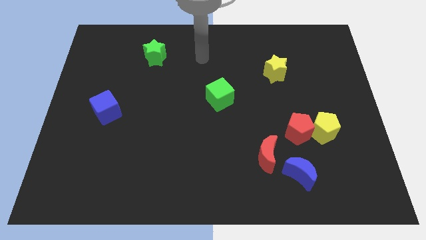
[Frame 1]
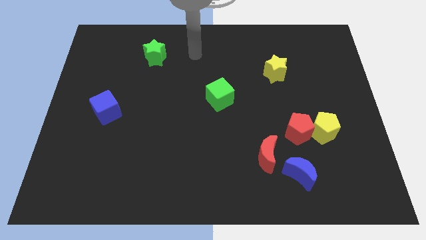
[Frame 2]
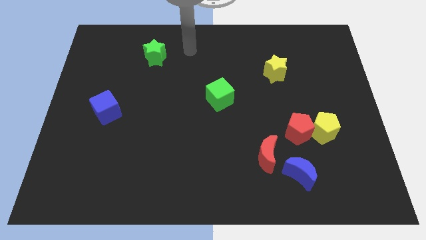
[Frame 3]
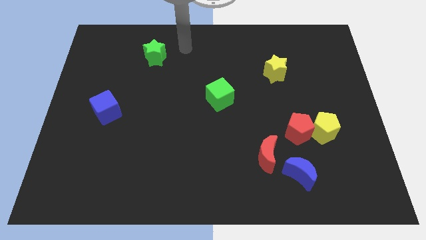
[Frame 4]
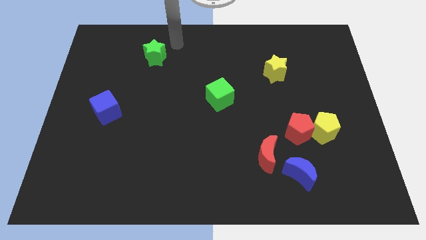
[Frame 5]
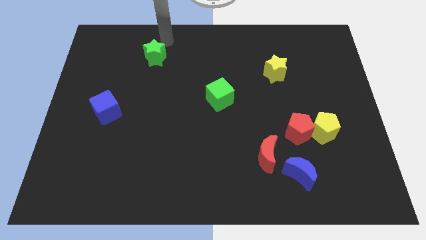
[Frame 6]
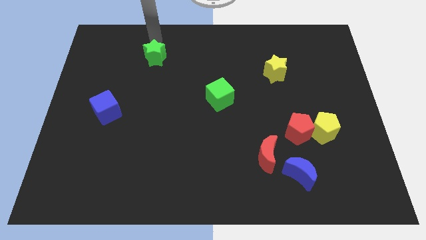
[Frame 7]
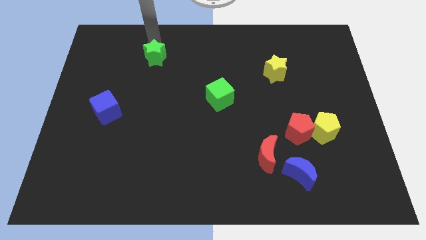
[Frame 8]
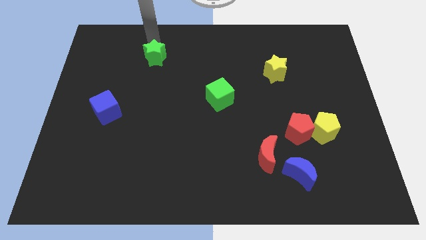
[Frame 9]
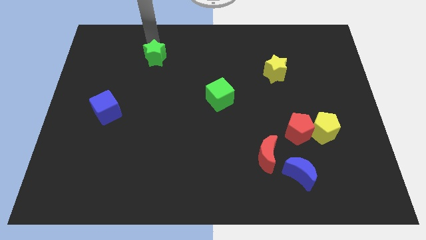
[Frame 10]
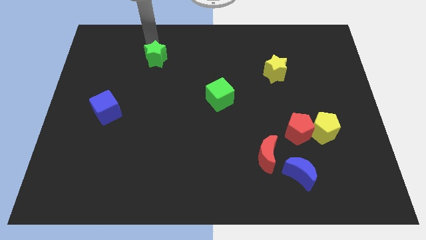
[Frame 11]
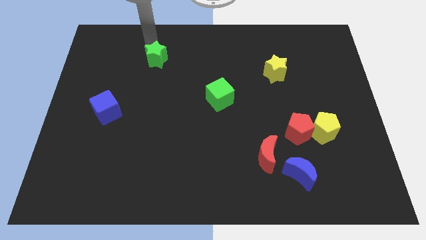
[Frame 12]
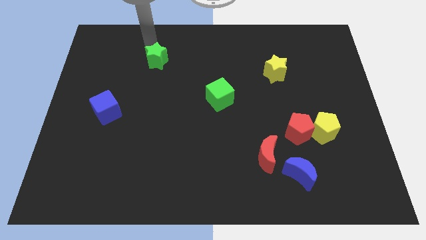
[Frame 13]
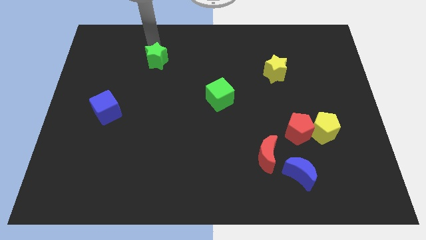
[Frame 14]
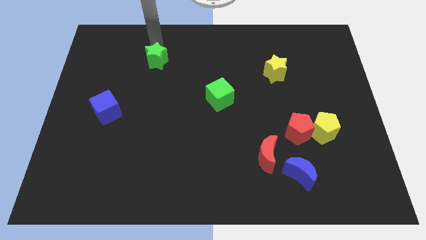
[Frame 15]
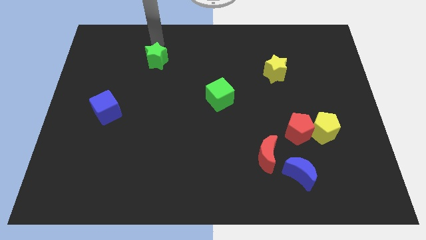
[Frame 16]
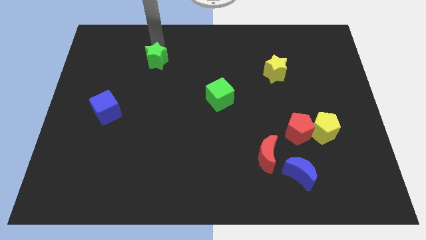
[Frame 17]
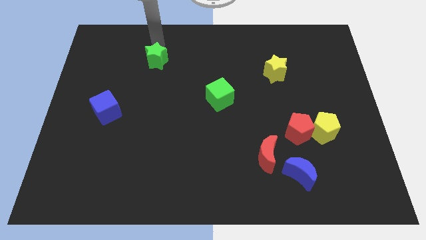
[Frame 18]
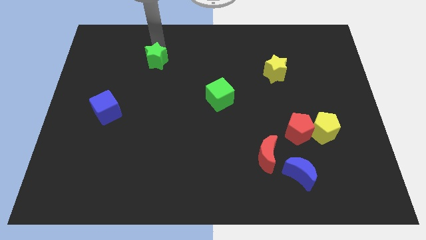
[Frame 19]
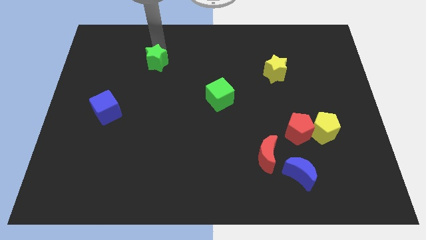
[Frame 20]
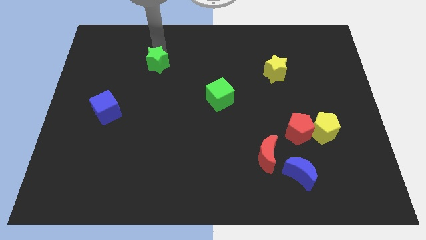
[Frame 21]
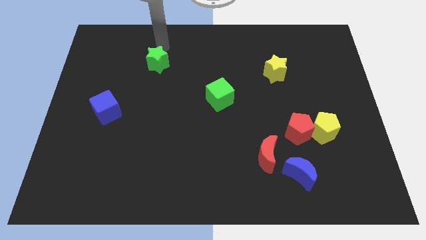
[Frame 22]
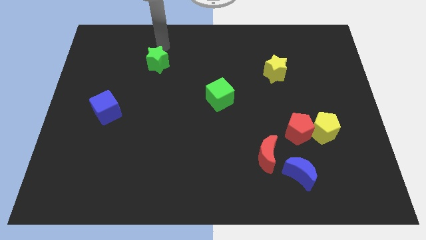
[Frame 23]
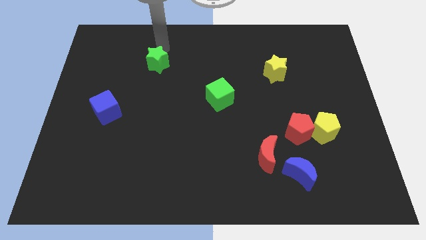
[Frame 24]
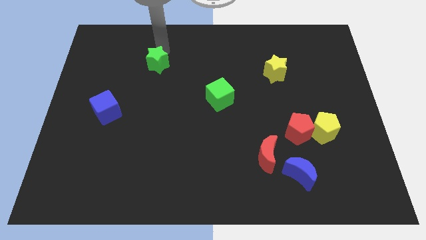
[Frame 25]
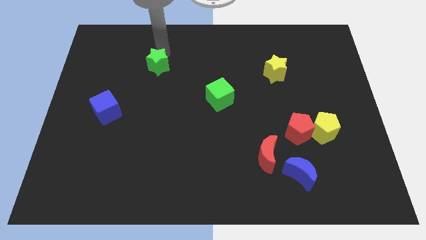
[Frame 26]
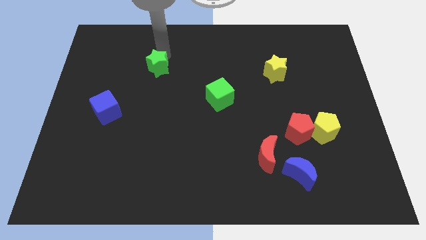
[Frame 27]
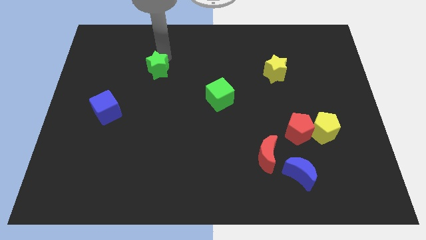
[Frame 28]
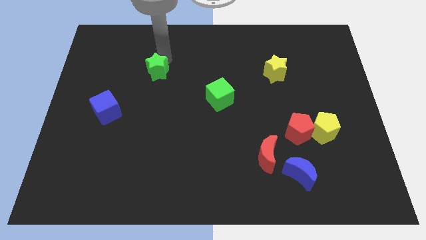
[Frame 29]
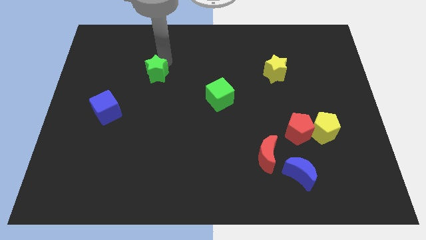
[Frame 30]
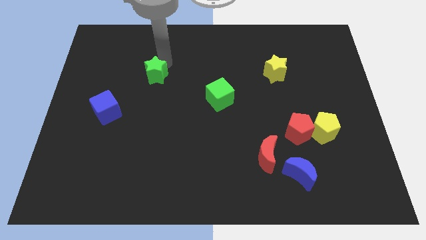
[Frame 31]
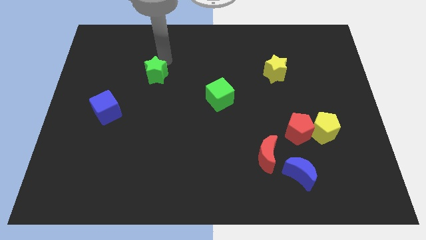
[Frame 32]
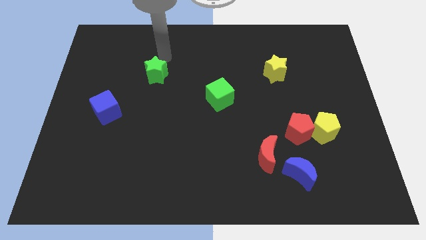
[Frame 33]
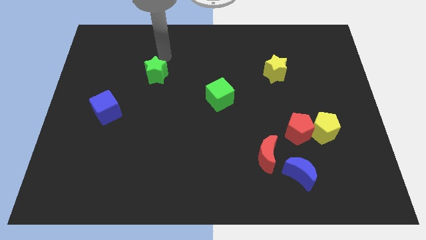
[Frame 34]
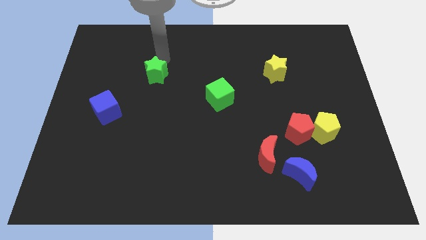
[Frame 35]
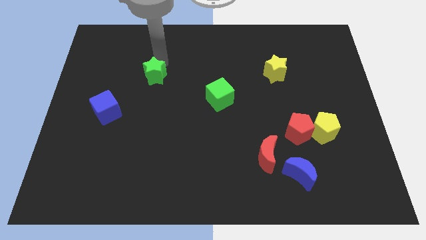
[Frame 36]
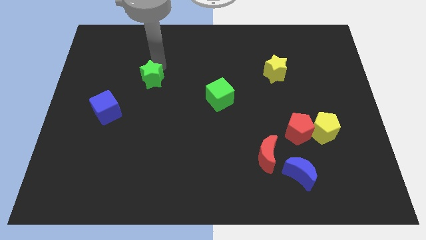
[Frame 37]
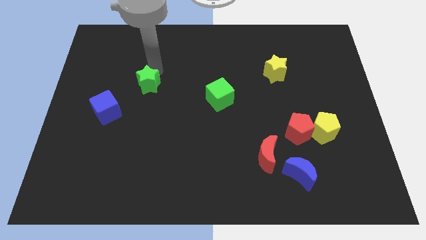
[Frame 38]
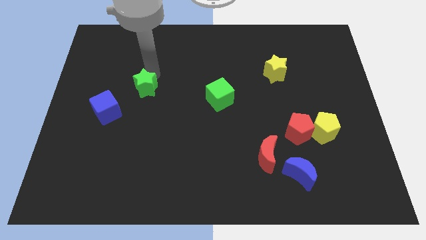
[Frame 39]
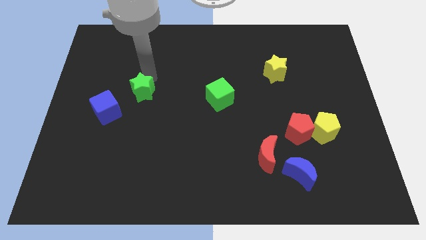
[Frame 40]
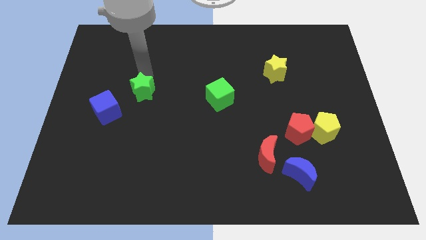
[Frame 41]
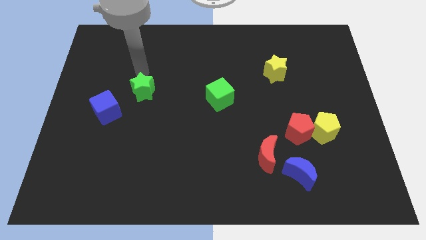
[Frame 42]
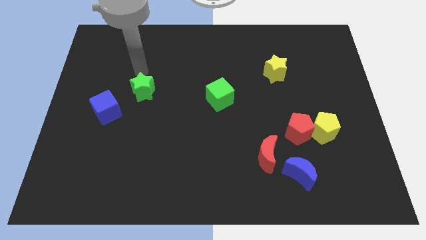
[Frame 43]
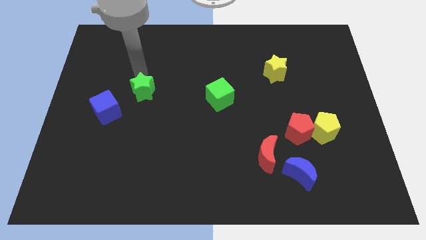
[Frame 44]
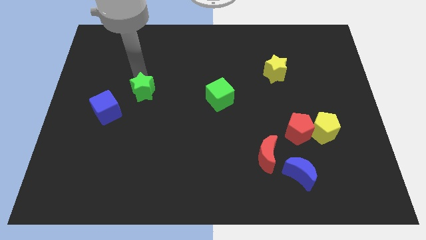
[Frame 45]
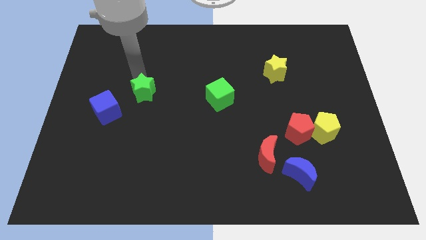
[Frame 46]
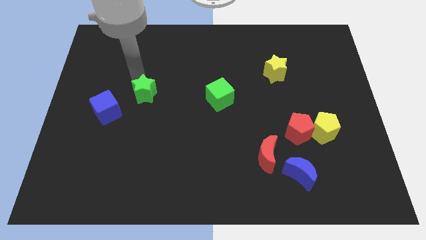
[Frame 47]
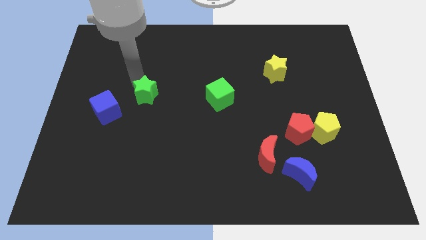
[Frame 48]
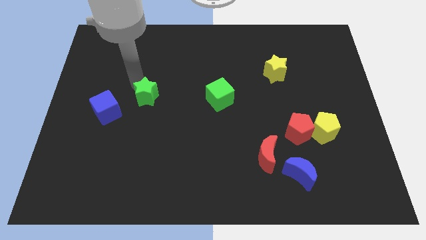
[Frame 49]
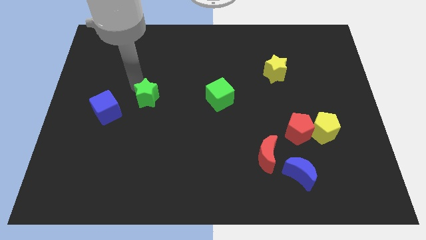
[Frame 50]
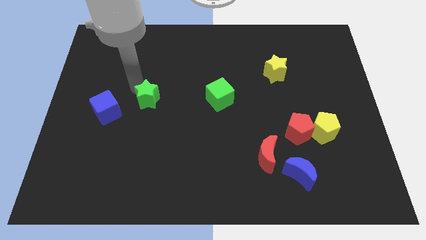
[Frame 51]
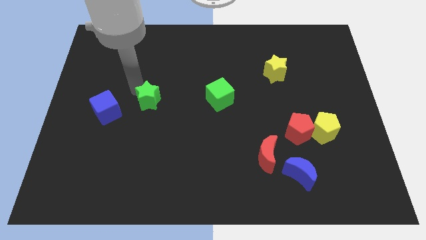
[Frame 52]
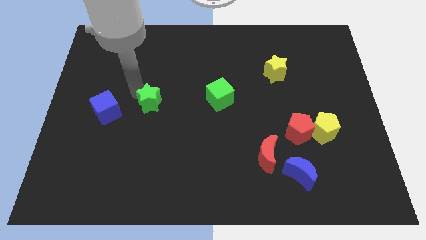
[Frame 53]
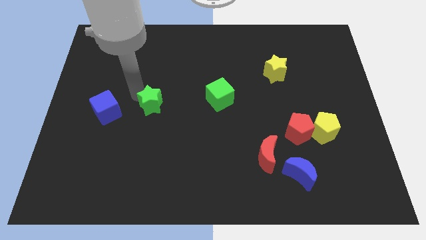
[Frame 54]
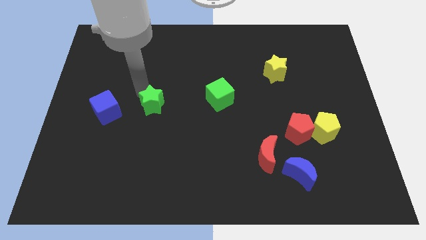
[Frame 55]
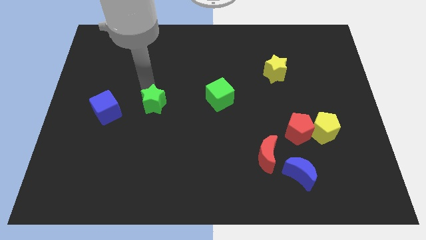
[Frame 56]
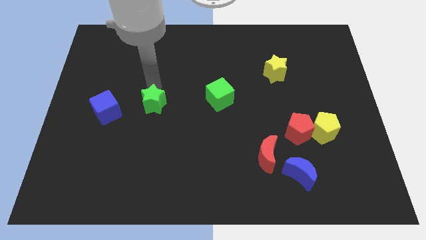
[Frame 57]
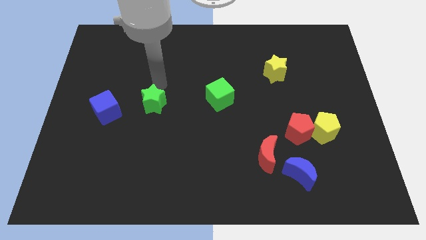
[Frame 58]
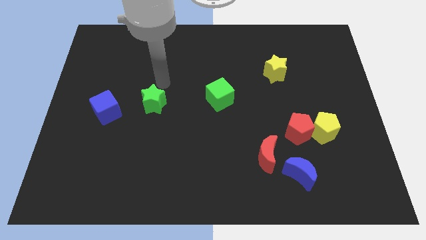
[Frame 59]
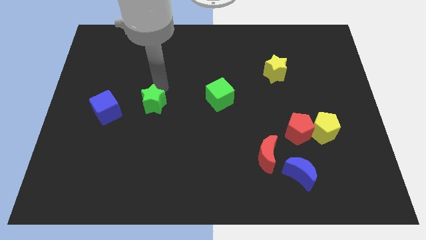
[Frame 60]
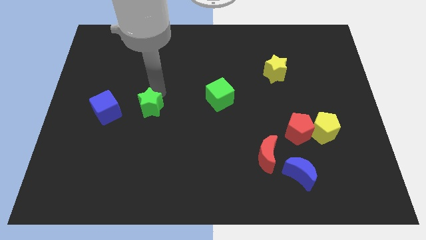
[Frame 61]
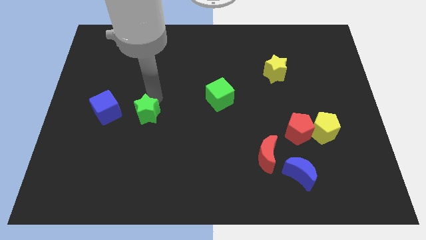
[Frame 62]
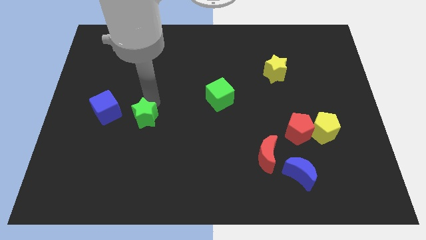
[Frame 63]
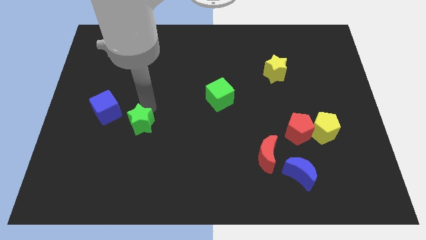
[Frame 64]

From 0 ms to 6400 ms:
move the green star down

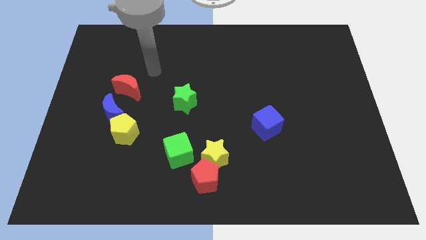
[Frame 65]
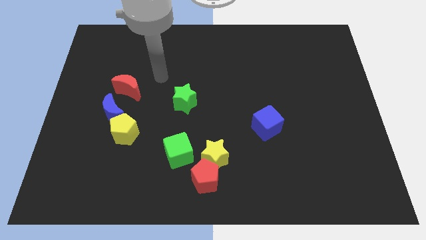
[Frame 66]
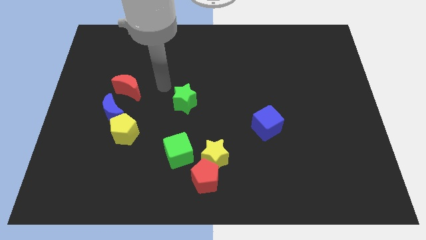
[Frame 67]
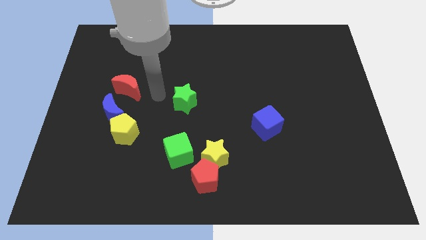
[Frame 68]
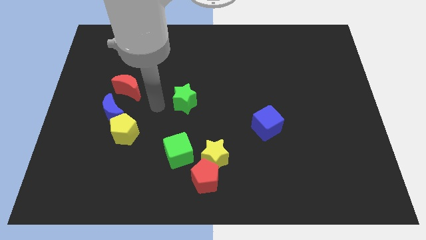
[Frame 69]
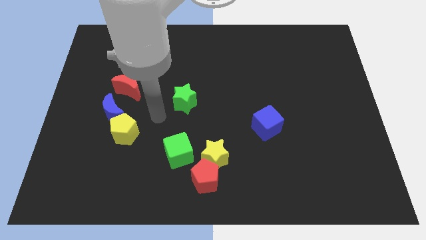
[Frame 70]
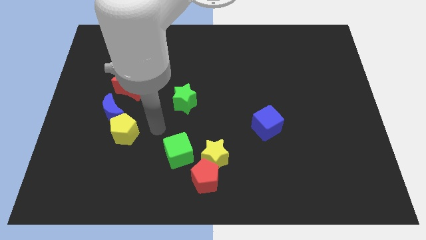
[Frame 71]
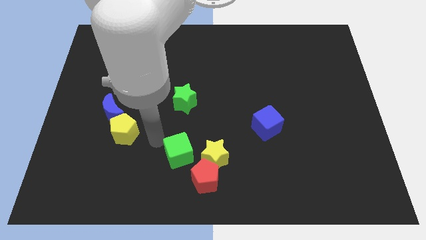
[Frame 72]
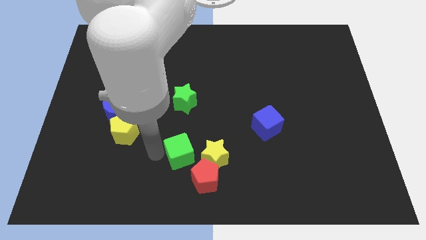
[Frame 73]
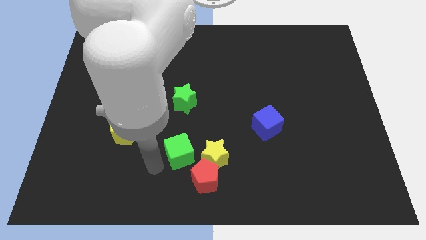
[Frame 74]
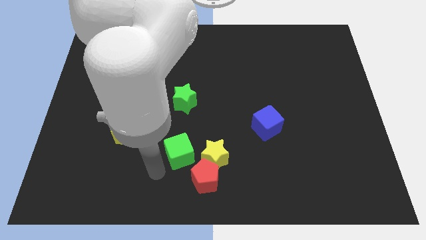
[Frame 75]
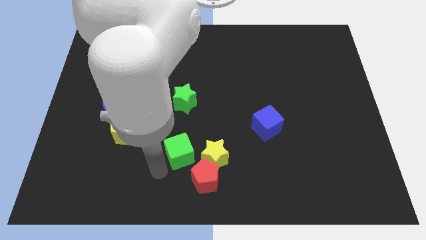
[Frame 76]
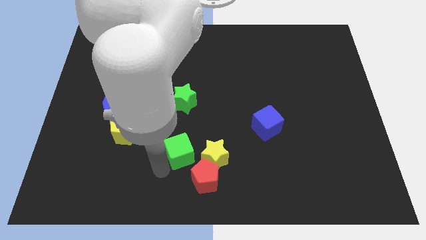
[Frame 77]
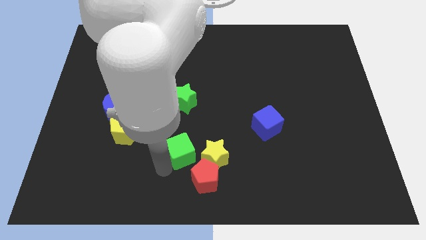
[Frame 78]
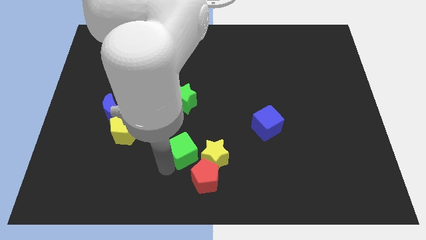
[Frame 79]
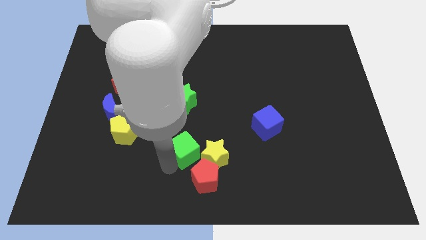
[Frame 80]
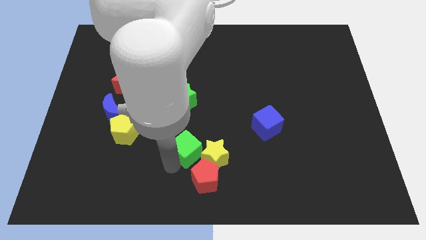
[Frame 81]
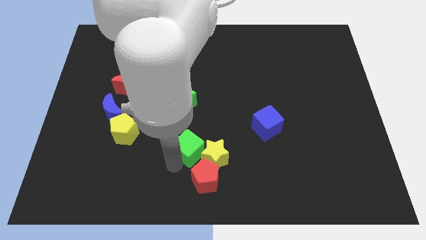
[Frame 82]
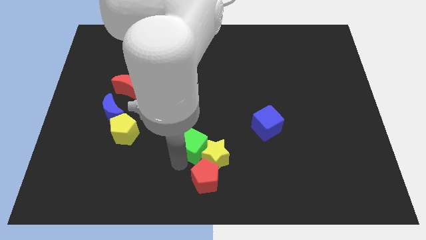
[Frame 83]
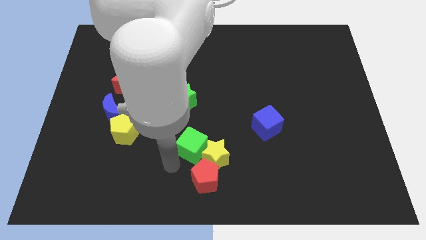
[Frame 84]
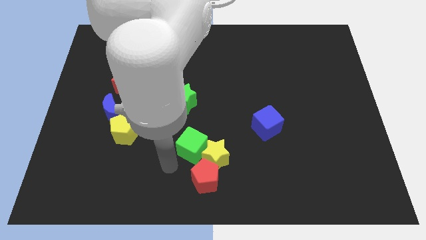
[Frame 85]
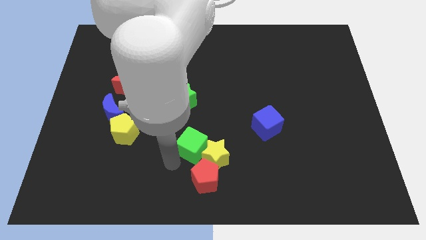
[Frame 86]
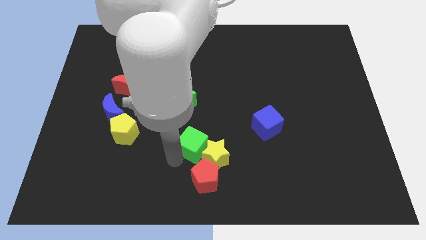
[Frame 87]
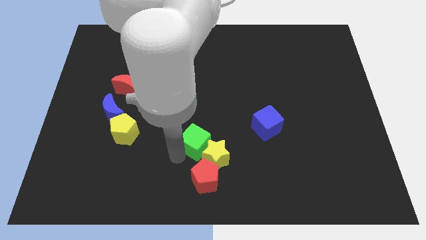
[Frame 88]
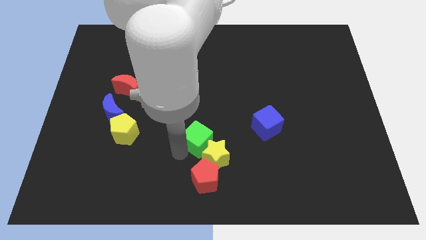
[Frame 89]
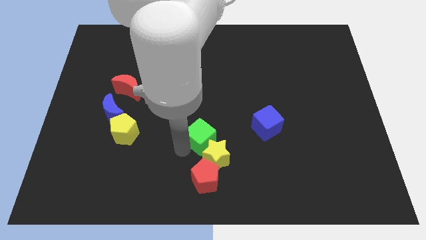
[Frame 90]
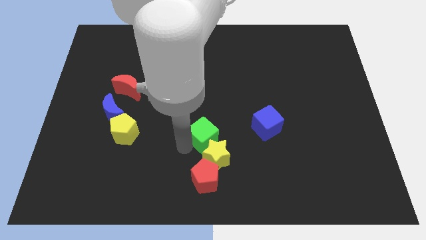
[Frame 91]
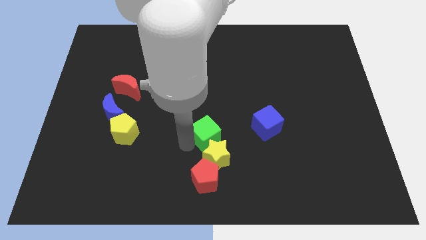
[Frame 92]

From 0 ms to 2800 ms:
push the green cube slightly upwards and right
